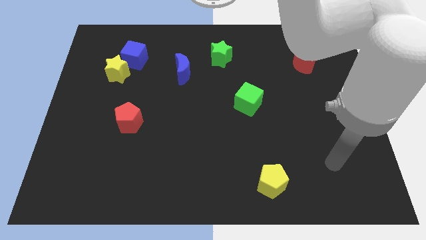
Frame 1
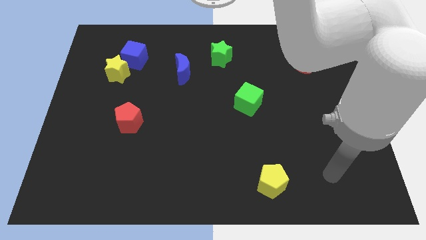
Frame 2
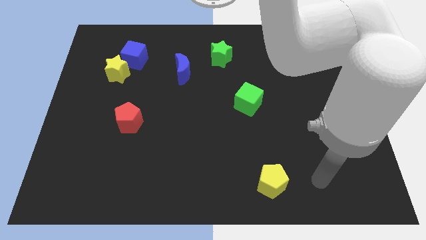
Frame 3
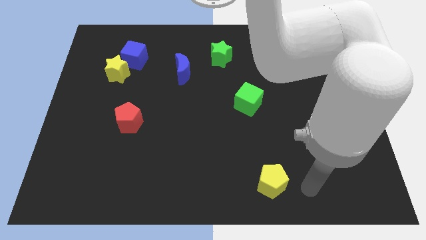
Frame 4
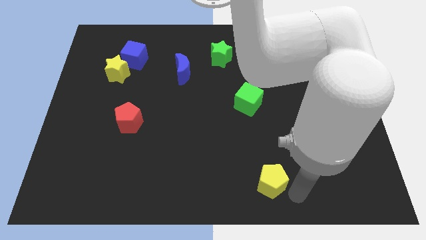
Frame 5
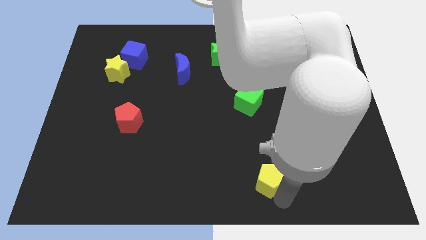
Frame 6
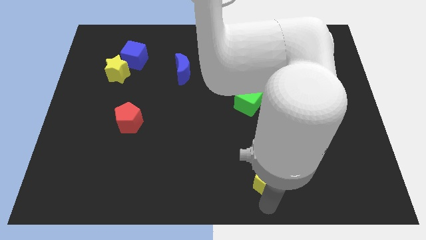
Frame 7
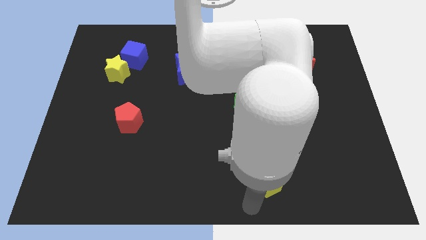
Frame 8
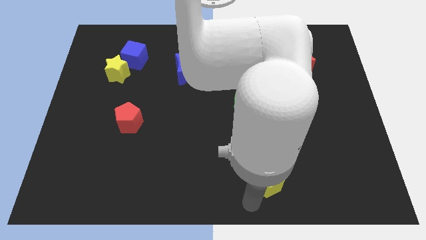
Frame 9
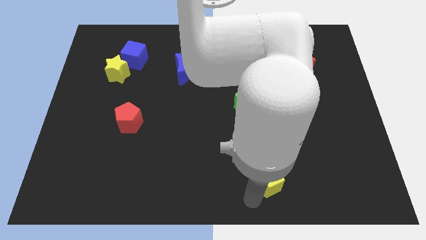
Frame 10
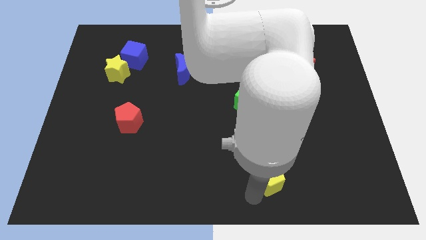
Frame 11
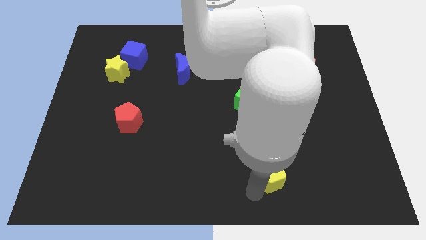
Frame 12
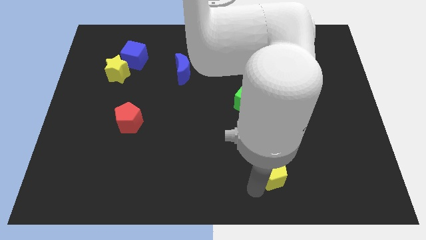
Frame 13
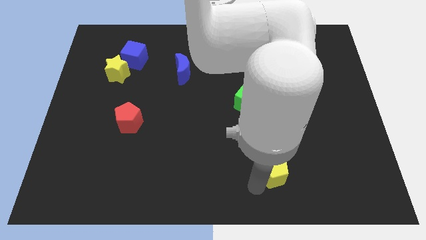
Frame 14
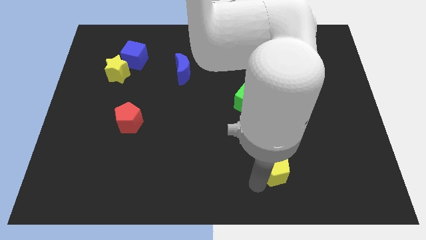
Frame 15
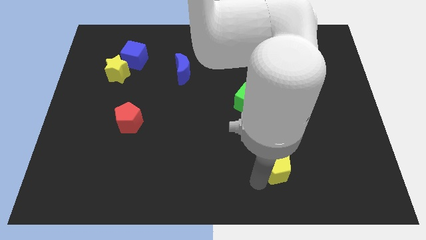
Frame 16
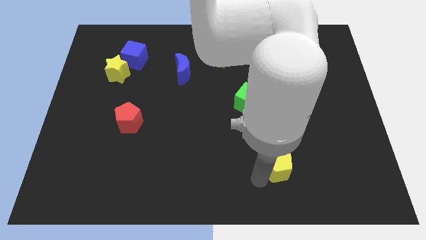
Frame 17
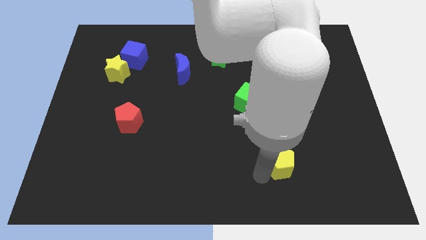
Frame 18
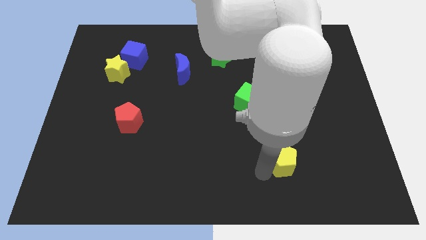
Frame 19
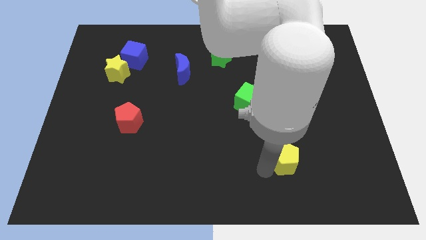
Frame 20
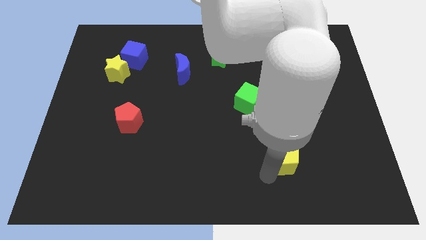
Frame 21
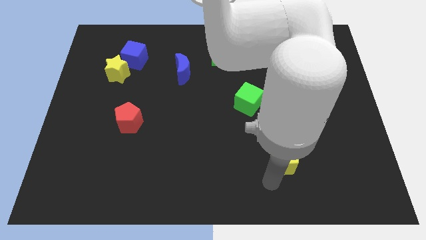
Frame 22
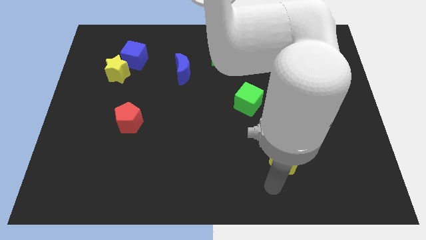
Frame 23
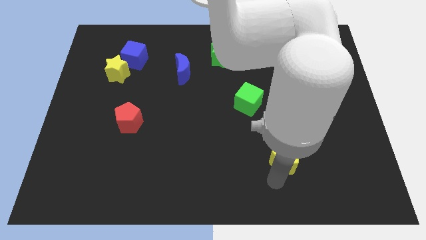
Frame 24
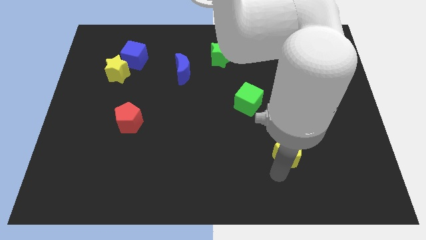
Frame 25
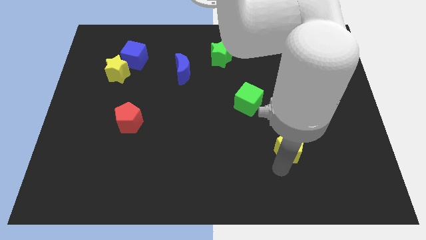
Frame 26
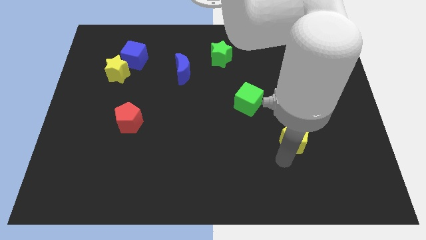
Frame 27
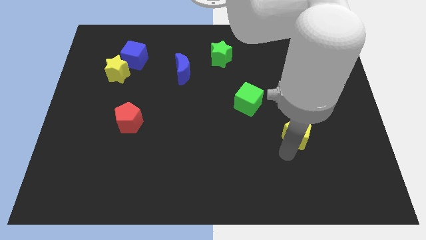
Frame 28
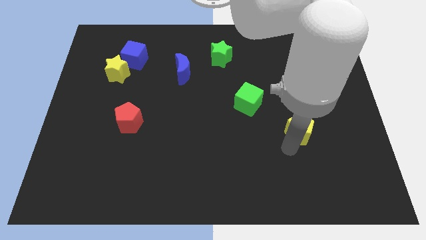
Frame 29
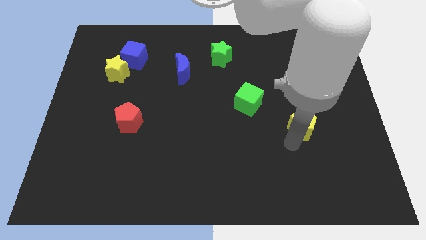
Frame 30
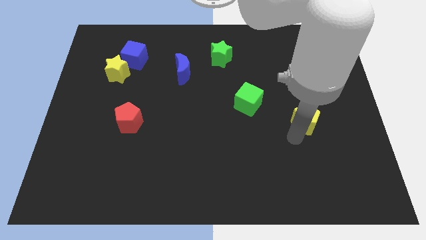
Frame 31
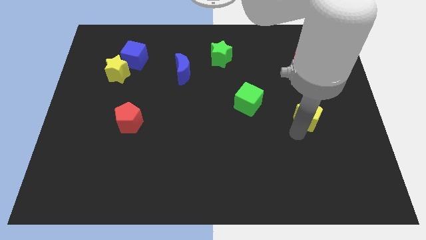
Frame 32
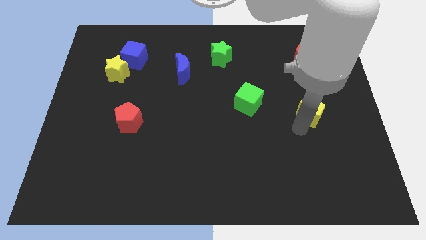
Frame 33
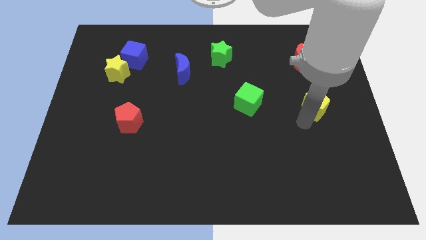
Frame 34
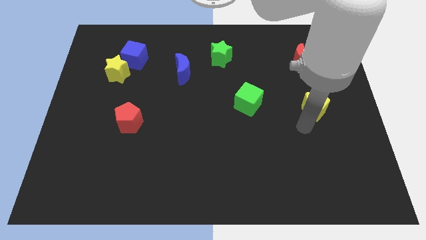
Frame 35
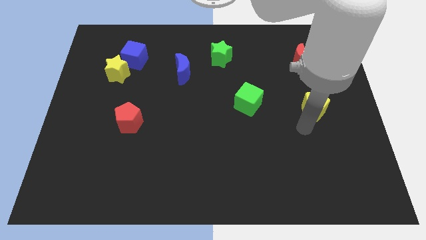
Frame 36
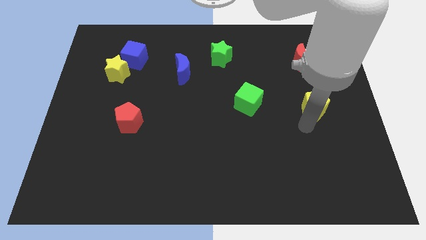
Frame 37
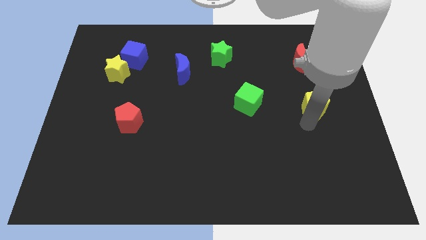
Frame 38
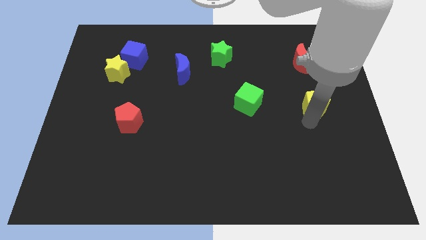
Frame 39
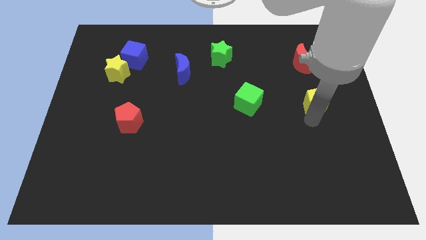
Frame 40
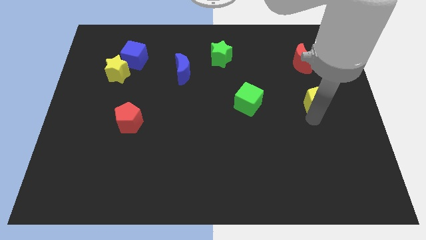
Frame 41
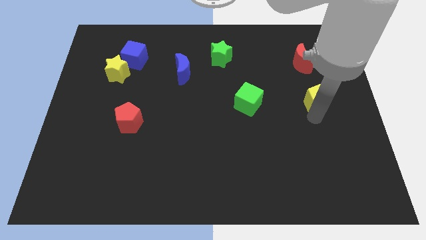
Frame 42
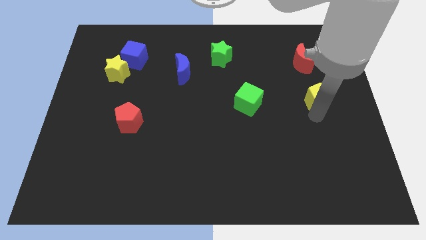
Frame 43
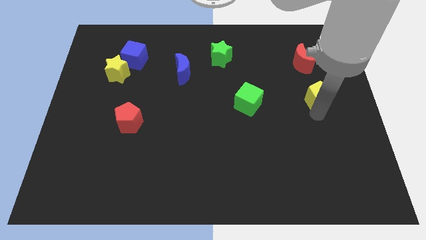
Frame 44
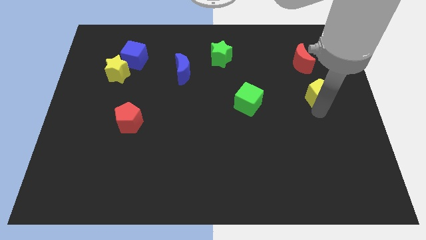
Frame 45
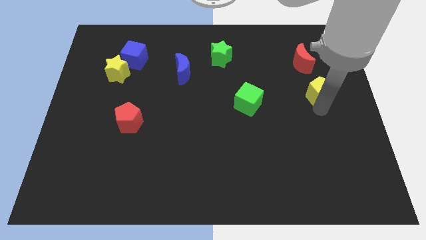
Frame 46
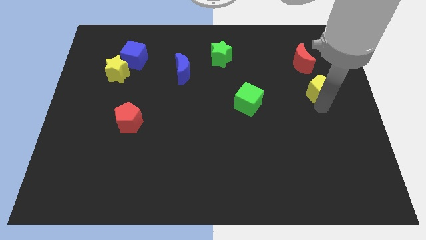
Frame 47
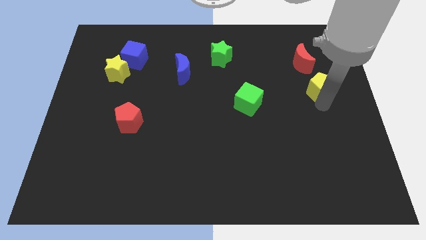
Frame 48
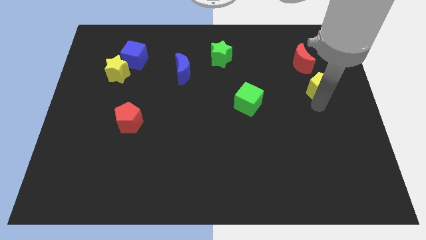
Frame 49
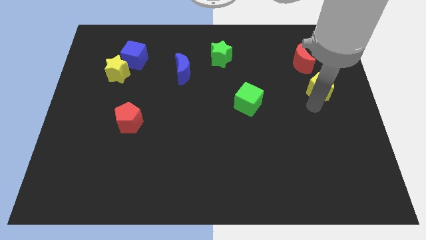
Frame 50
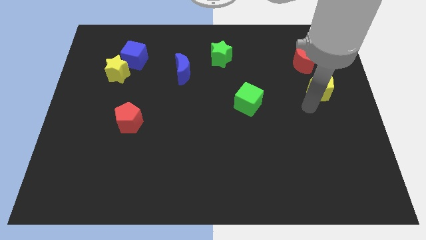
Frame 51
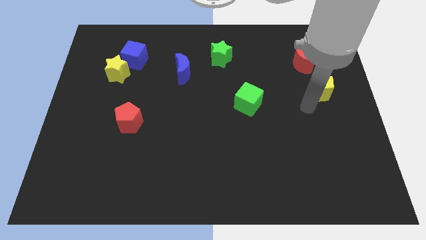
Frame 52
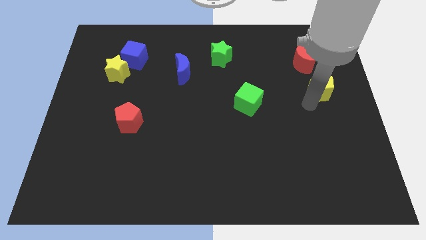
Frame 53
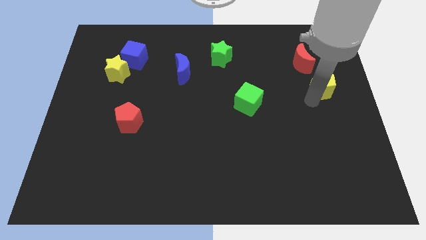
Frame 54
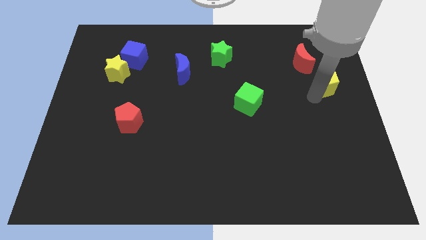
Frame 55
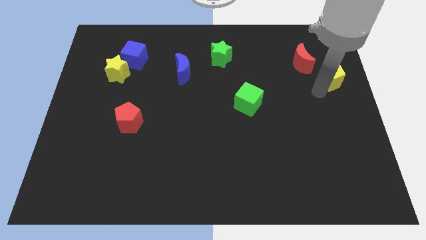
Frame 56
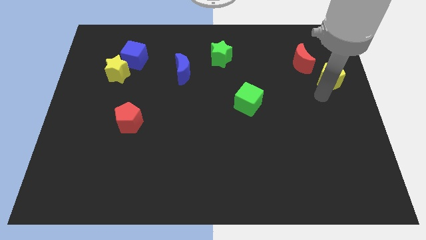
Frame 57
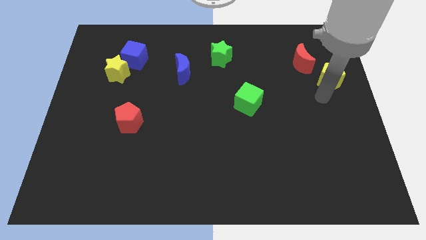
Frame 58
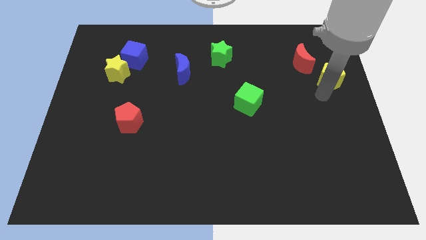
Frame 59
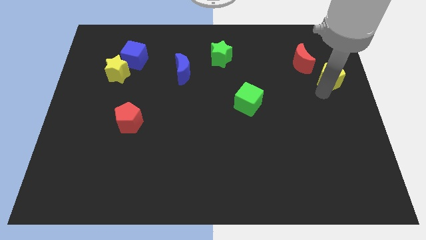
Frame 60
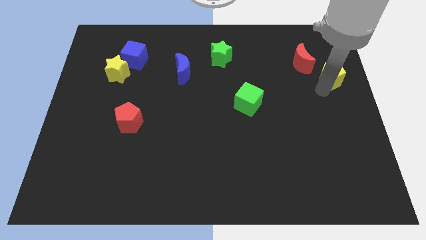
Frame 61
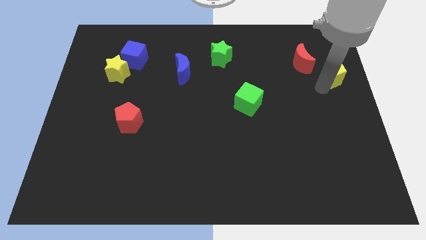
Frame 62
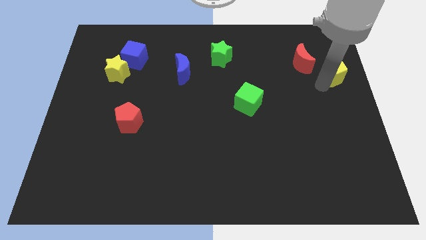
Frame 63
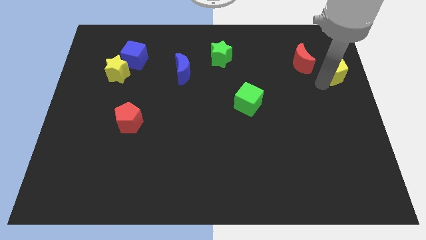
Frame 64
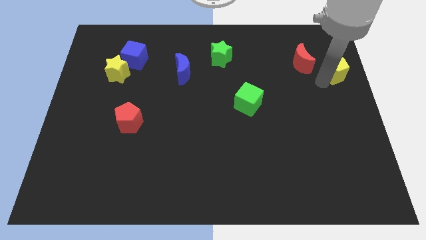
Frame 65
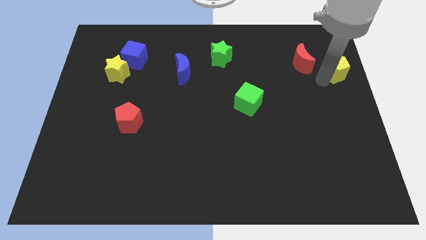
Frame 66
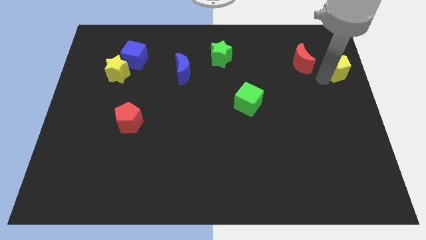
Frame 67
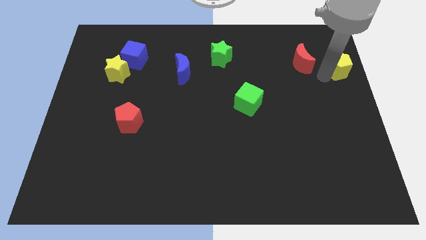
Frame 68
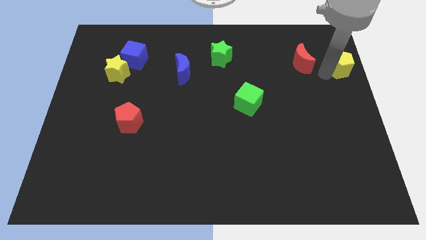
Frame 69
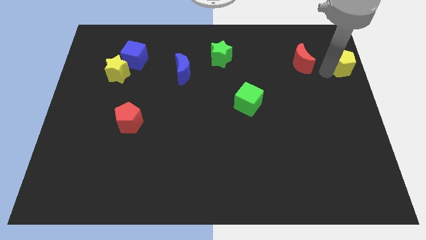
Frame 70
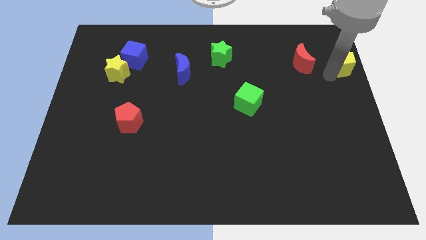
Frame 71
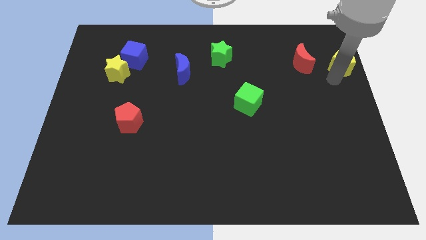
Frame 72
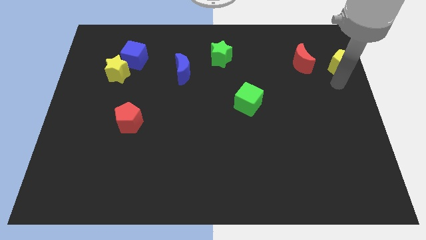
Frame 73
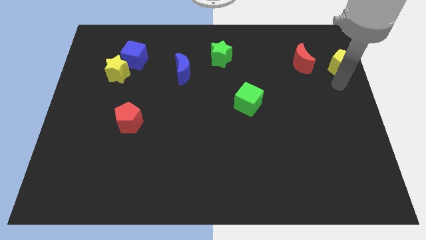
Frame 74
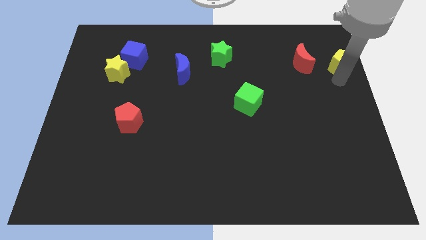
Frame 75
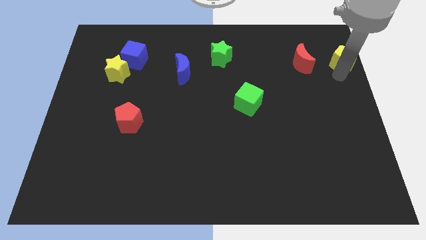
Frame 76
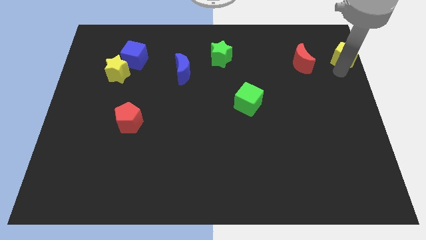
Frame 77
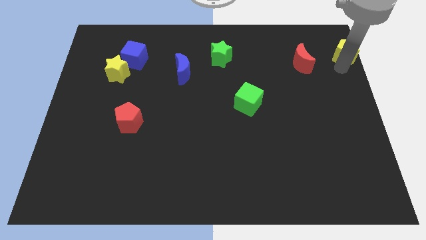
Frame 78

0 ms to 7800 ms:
move the yellow pentagon to the upper right corner
